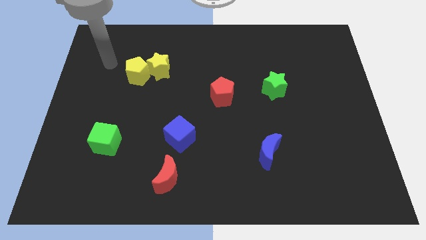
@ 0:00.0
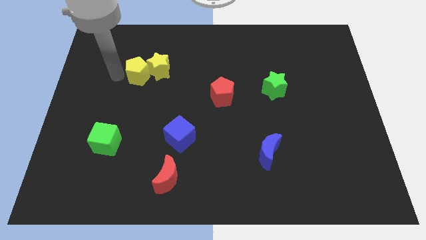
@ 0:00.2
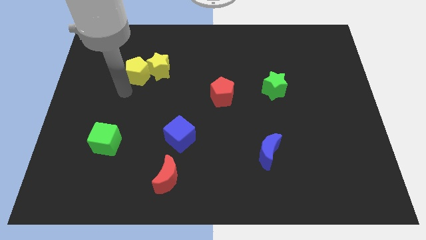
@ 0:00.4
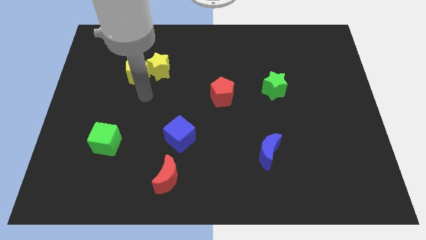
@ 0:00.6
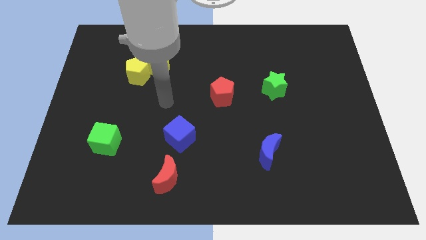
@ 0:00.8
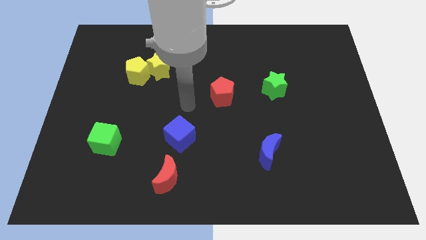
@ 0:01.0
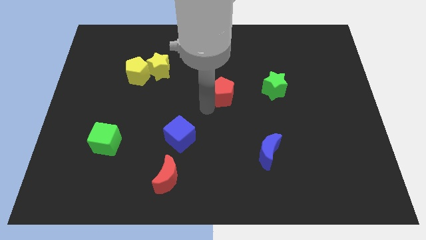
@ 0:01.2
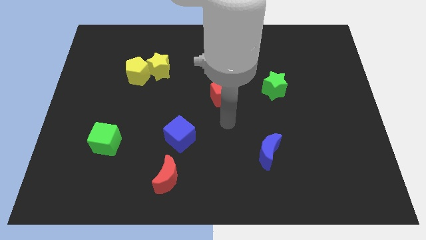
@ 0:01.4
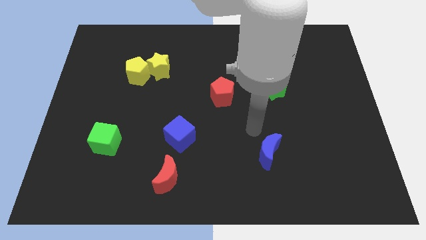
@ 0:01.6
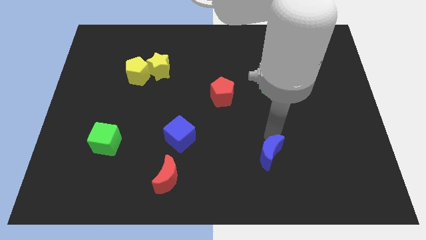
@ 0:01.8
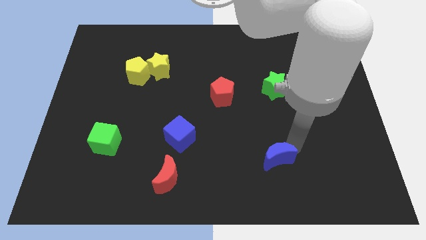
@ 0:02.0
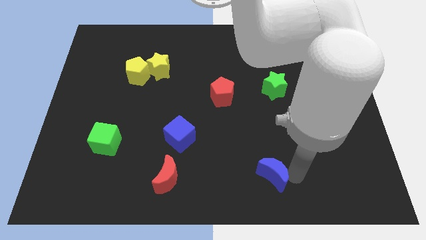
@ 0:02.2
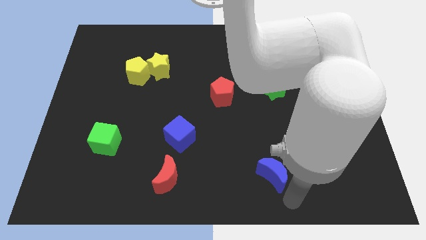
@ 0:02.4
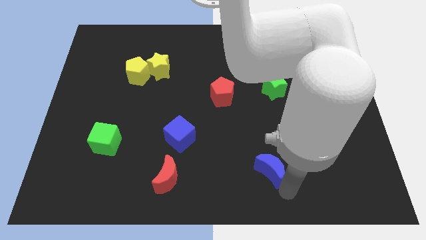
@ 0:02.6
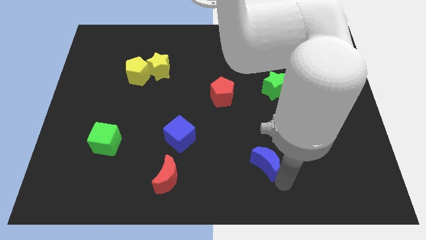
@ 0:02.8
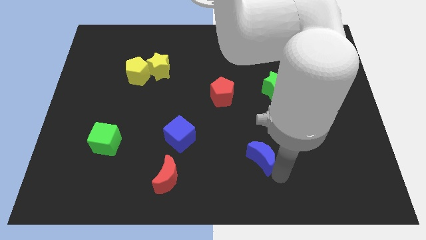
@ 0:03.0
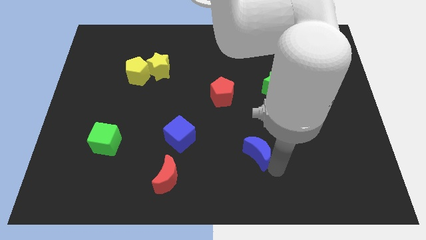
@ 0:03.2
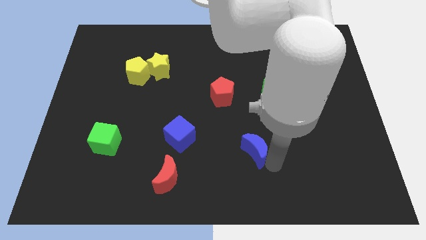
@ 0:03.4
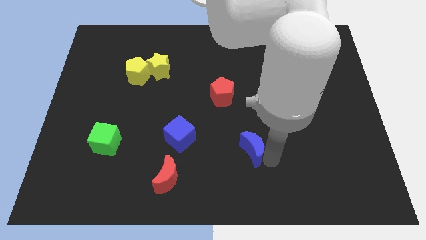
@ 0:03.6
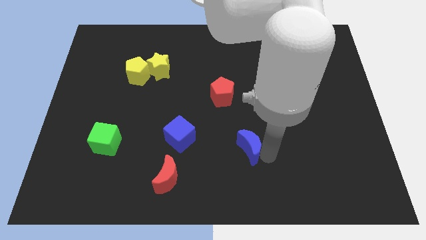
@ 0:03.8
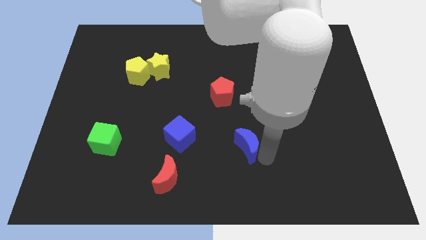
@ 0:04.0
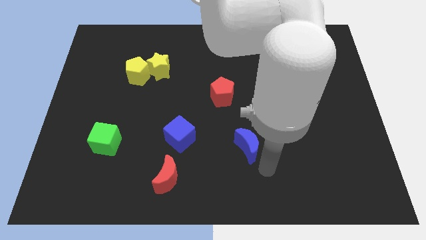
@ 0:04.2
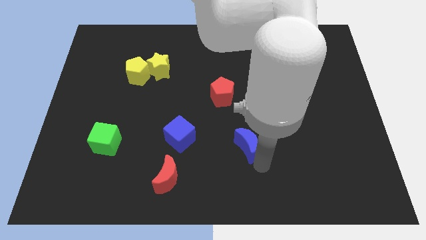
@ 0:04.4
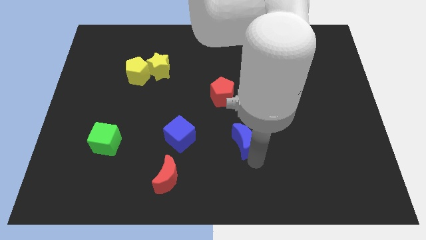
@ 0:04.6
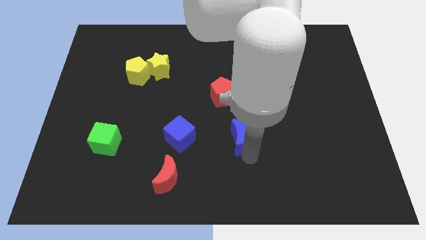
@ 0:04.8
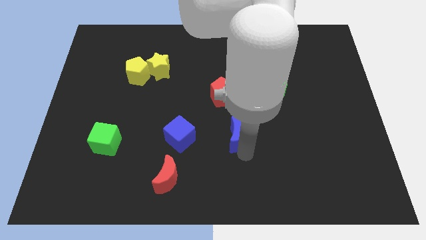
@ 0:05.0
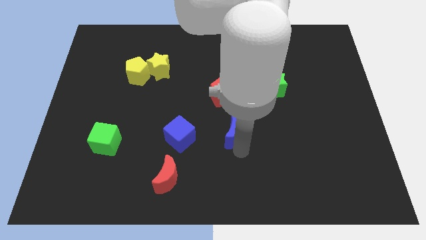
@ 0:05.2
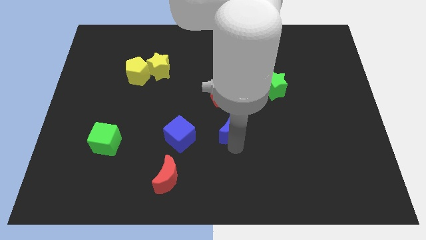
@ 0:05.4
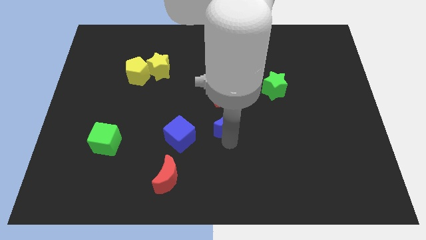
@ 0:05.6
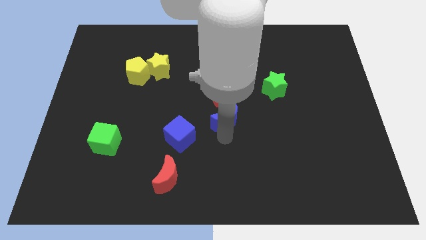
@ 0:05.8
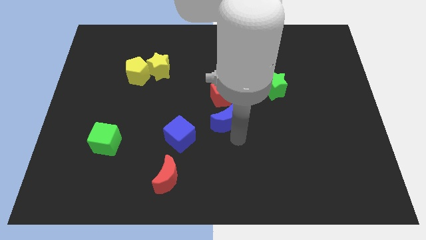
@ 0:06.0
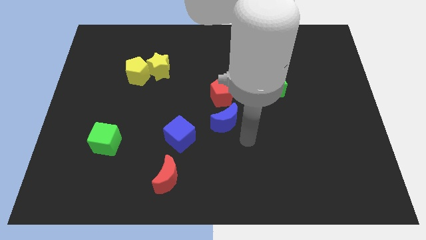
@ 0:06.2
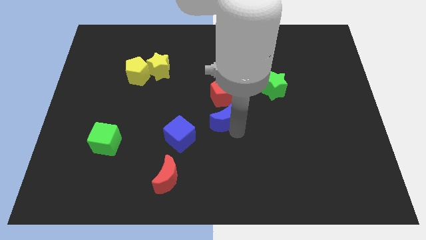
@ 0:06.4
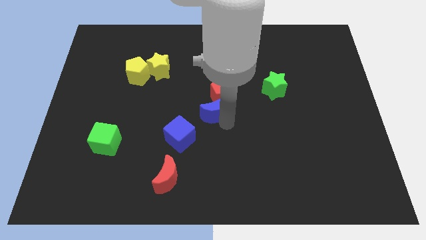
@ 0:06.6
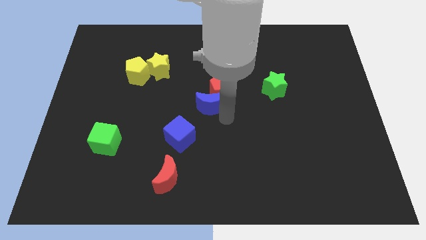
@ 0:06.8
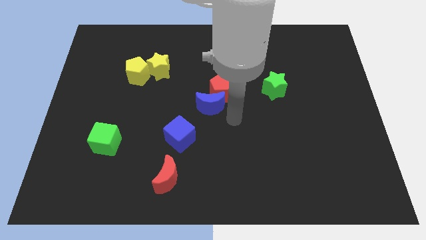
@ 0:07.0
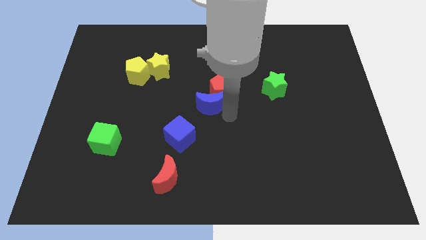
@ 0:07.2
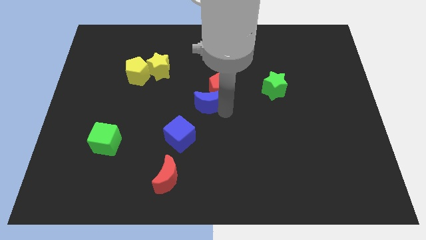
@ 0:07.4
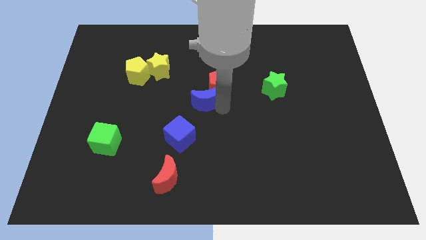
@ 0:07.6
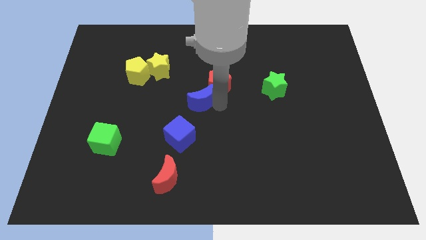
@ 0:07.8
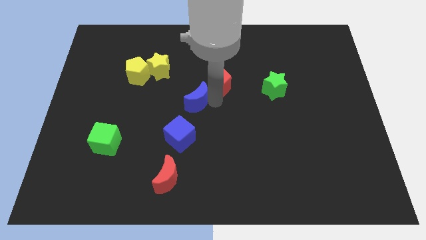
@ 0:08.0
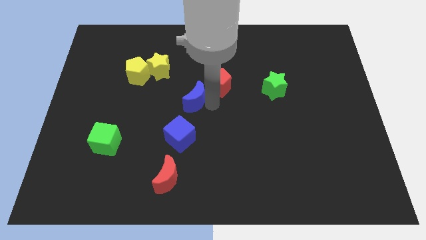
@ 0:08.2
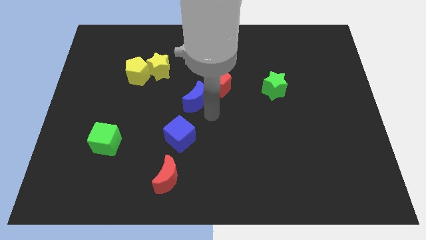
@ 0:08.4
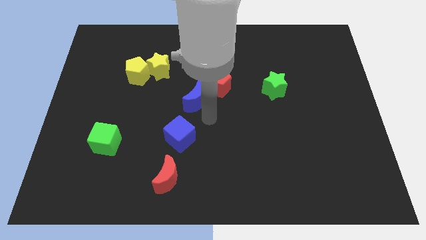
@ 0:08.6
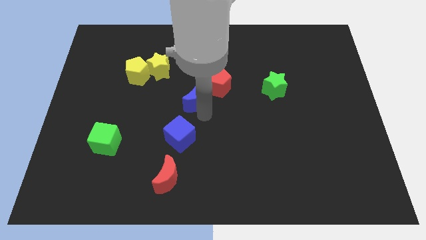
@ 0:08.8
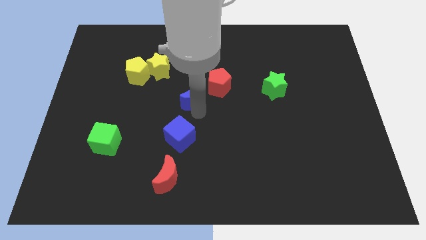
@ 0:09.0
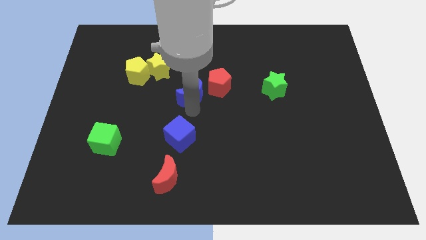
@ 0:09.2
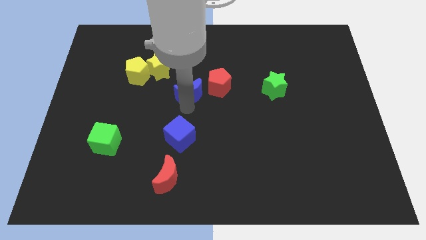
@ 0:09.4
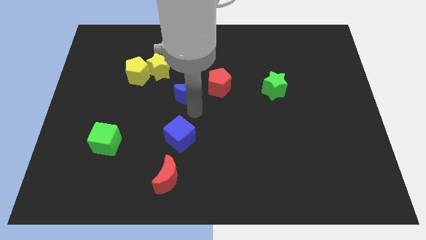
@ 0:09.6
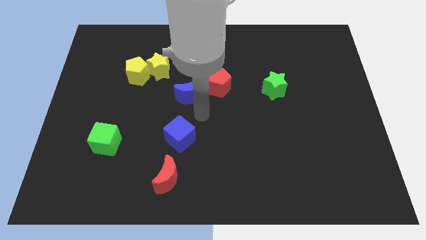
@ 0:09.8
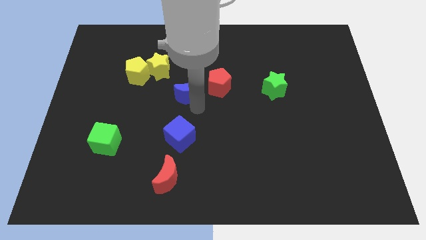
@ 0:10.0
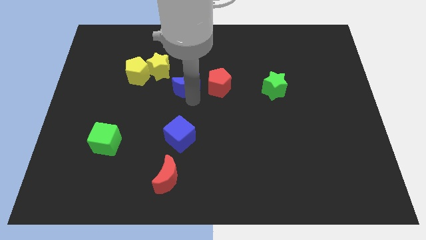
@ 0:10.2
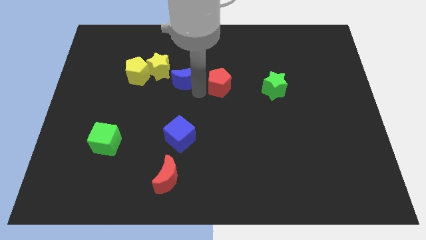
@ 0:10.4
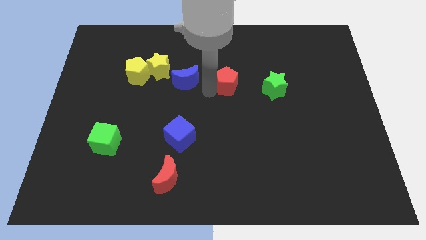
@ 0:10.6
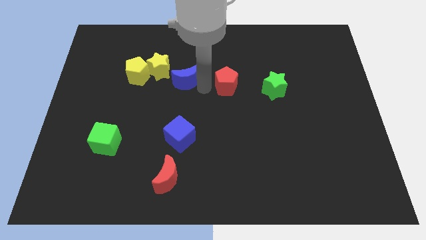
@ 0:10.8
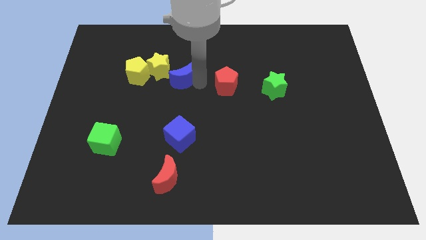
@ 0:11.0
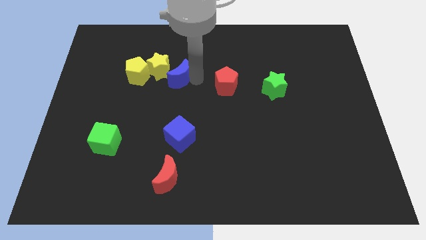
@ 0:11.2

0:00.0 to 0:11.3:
slide the blue moon to the yellow star

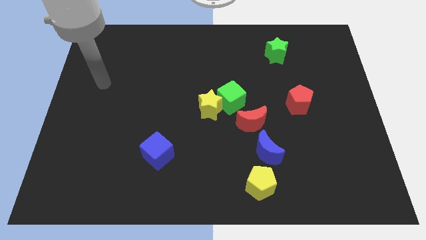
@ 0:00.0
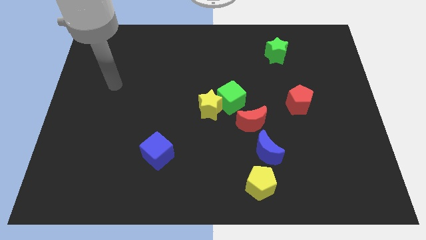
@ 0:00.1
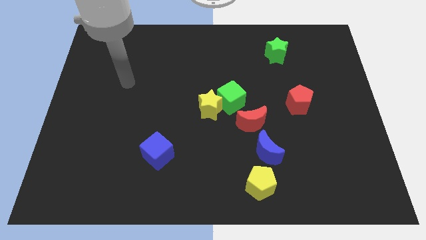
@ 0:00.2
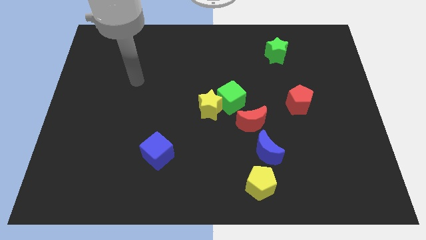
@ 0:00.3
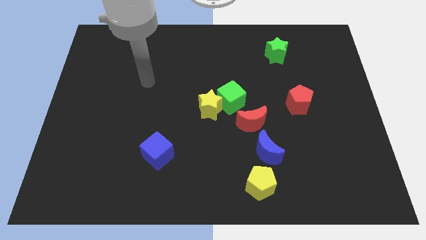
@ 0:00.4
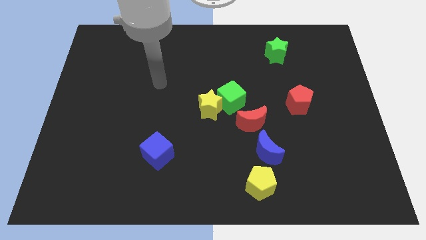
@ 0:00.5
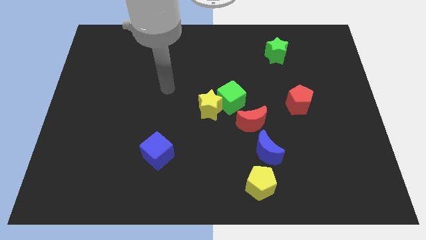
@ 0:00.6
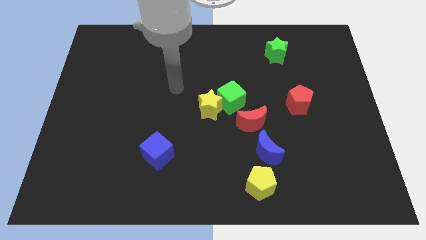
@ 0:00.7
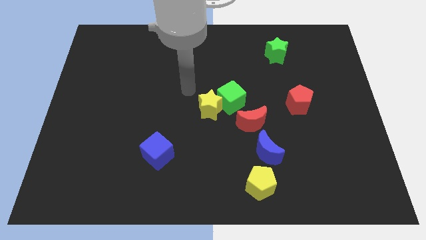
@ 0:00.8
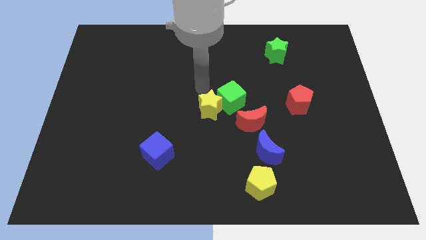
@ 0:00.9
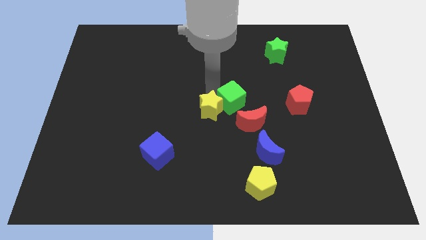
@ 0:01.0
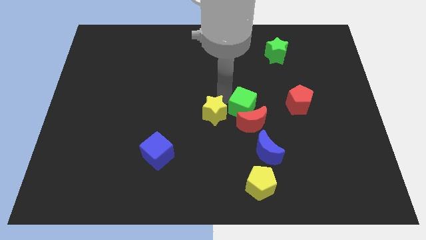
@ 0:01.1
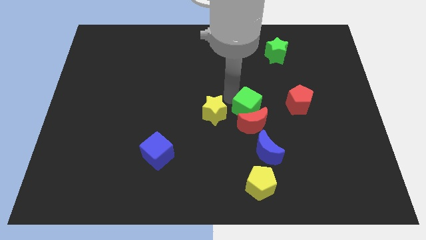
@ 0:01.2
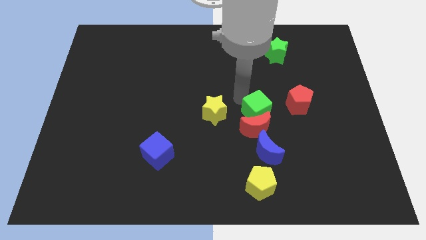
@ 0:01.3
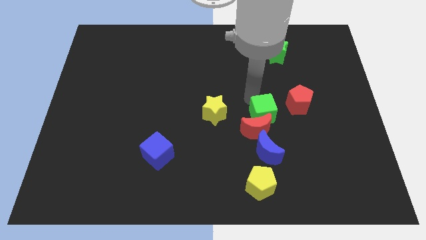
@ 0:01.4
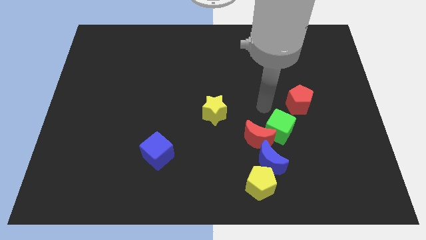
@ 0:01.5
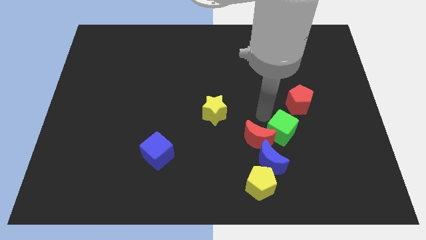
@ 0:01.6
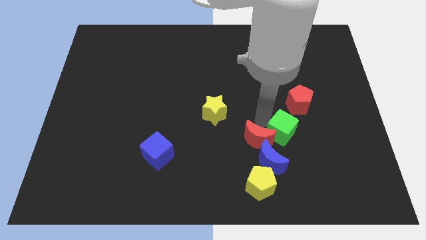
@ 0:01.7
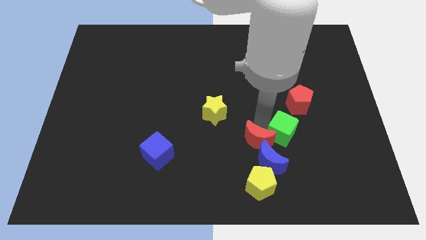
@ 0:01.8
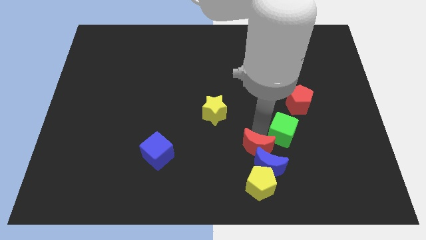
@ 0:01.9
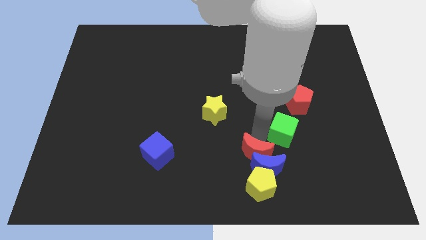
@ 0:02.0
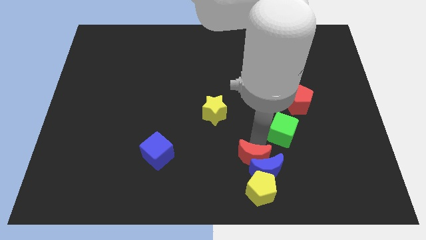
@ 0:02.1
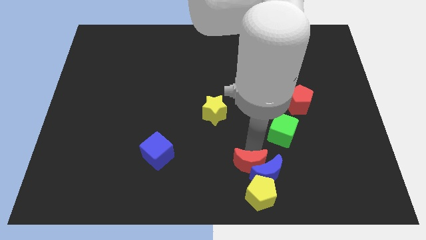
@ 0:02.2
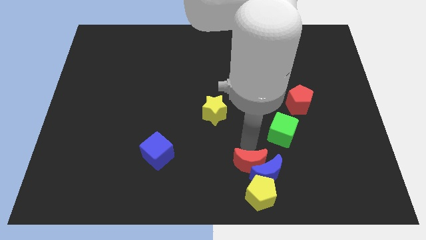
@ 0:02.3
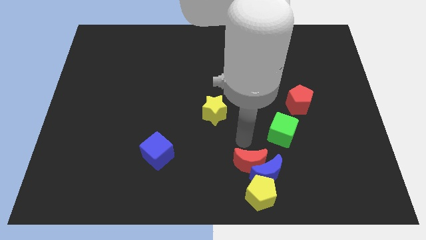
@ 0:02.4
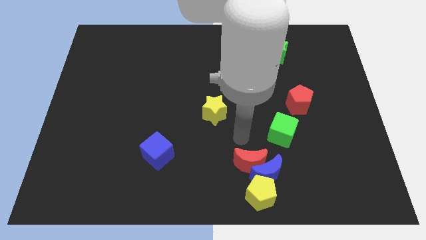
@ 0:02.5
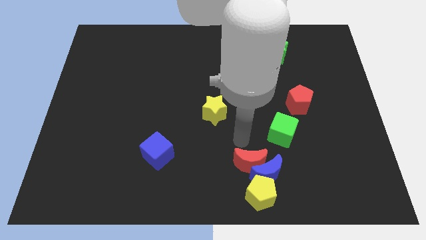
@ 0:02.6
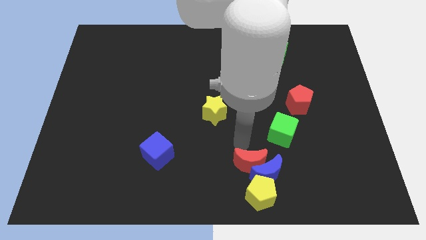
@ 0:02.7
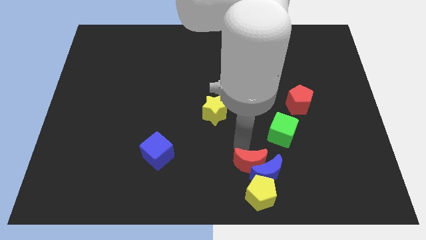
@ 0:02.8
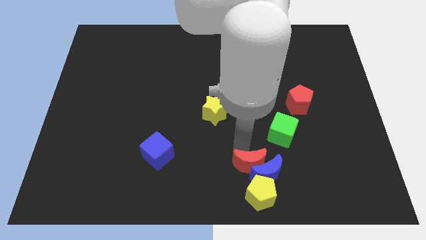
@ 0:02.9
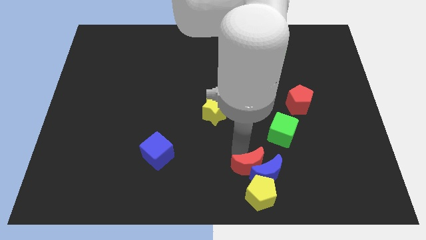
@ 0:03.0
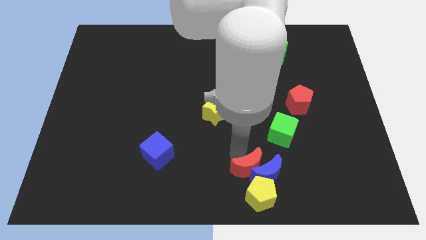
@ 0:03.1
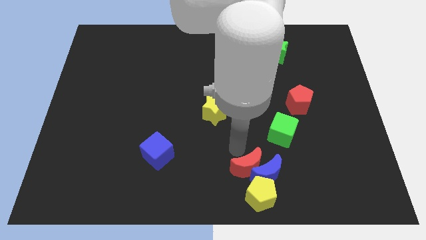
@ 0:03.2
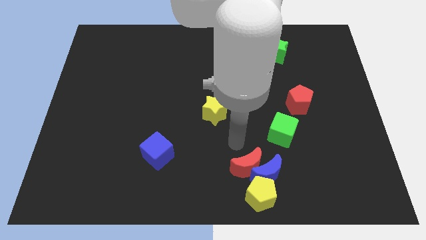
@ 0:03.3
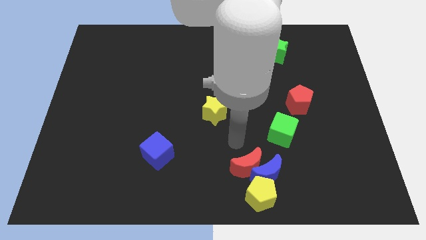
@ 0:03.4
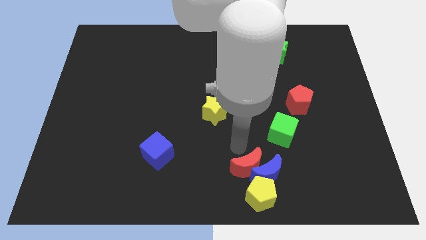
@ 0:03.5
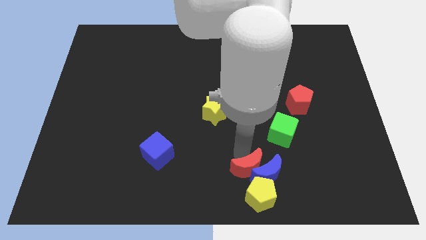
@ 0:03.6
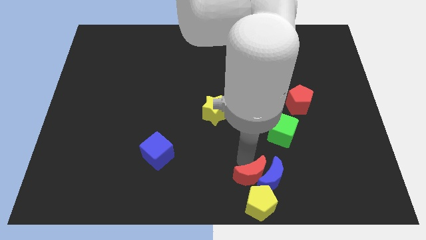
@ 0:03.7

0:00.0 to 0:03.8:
move the red moon towards the yellow pentagon
